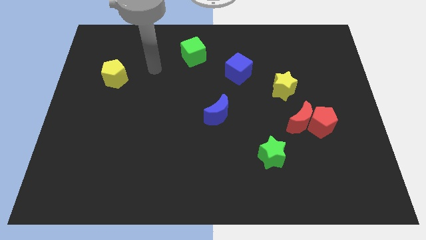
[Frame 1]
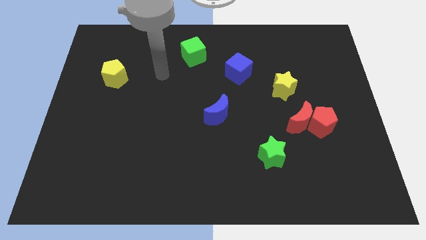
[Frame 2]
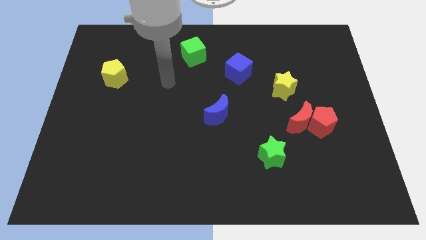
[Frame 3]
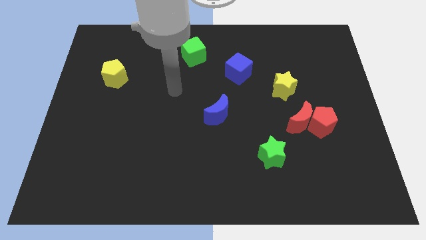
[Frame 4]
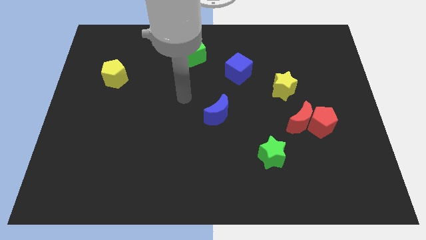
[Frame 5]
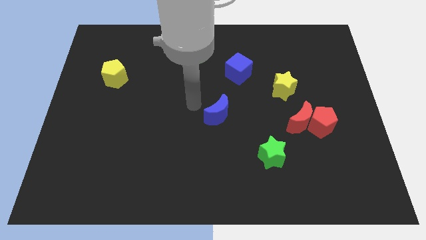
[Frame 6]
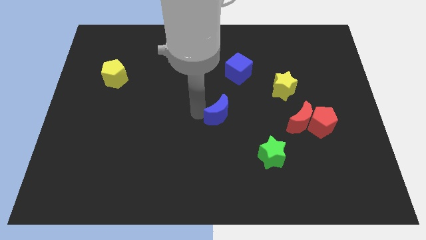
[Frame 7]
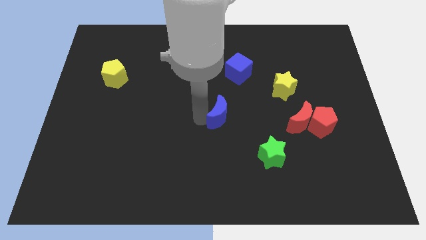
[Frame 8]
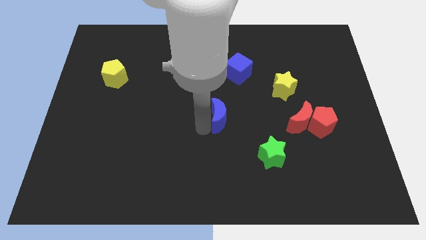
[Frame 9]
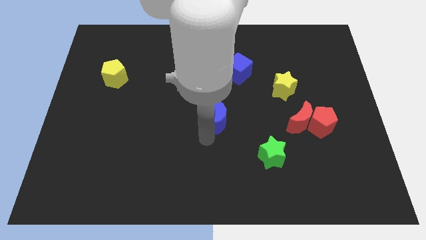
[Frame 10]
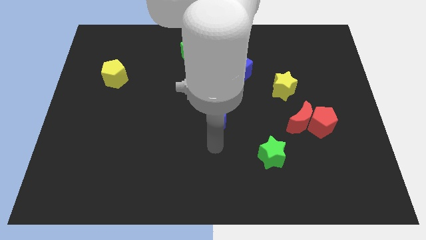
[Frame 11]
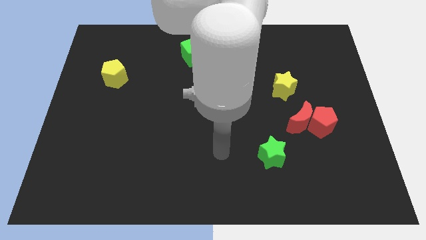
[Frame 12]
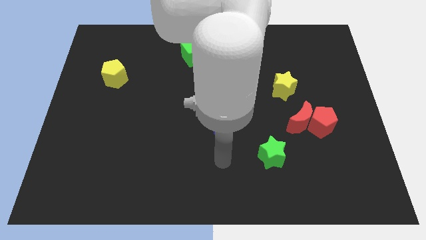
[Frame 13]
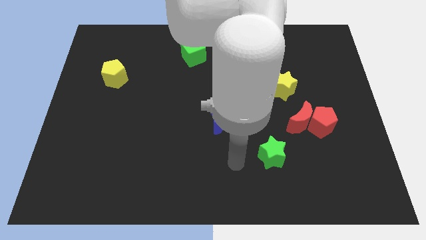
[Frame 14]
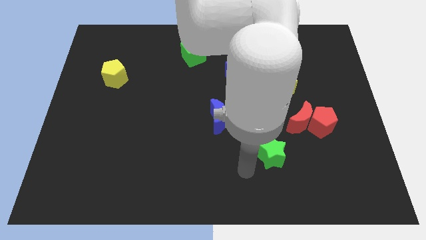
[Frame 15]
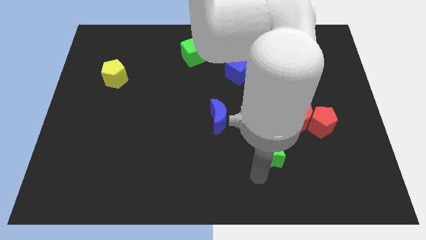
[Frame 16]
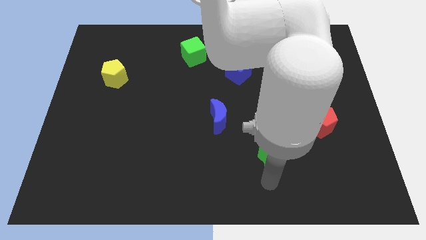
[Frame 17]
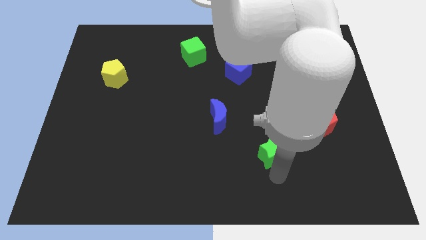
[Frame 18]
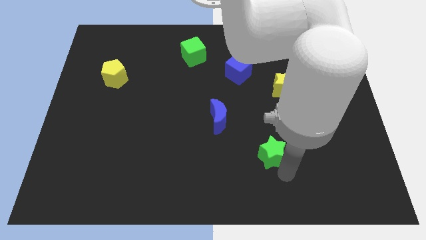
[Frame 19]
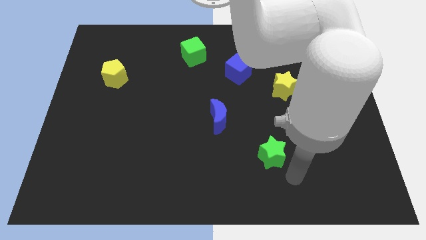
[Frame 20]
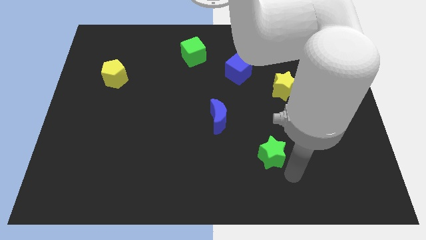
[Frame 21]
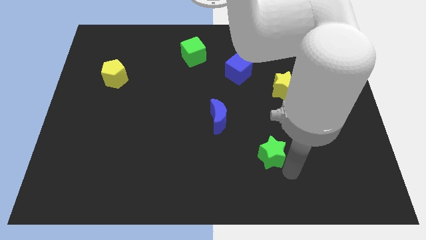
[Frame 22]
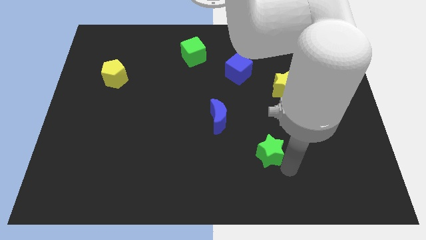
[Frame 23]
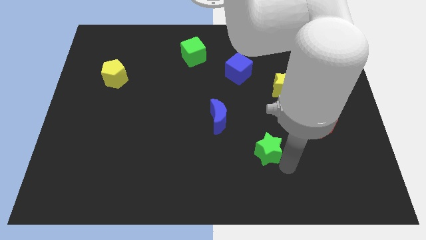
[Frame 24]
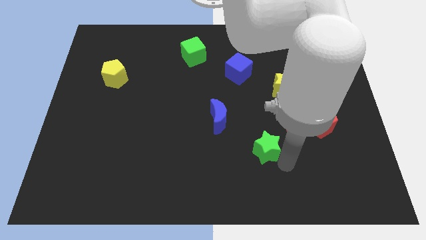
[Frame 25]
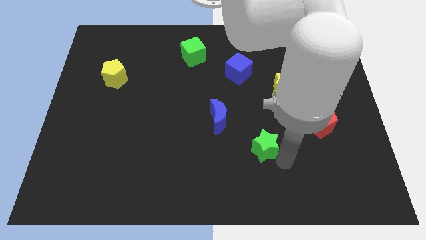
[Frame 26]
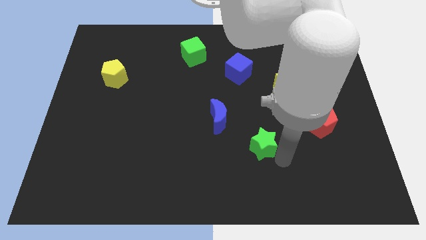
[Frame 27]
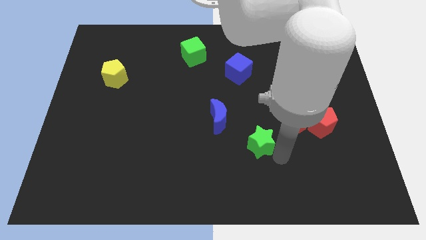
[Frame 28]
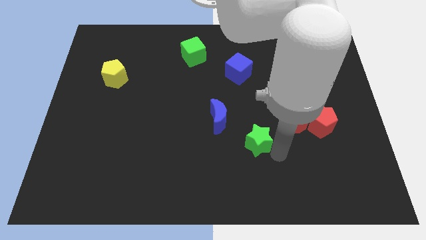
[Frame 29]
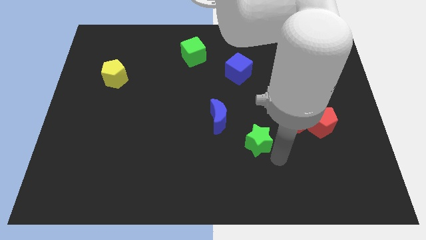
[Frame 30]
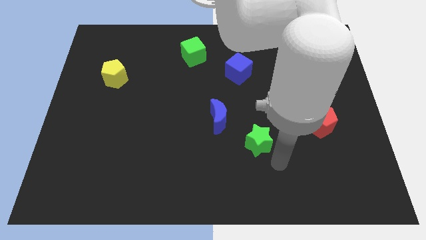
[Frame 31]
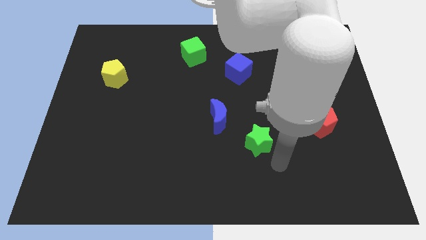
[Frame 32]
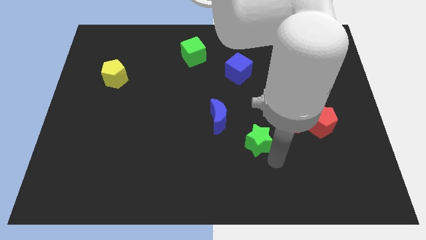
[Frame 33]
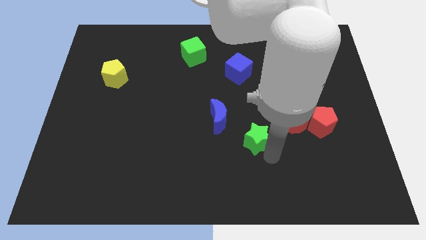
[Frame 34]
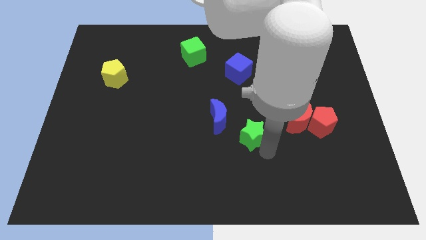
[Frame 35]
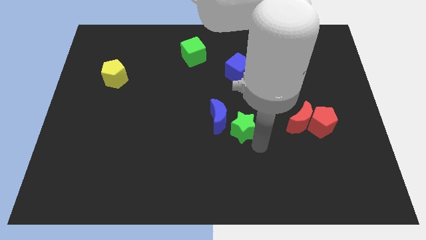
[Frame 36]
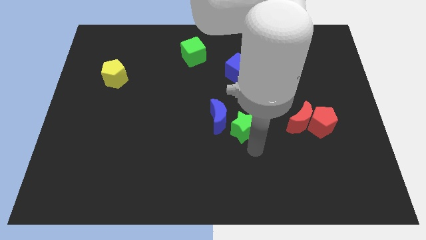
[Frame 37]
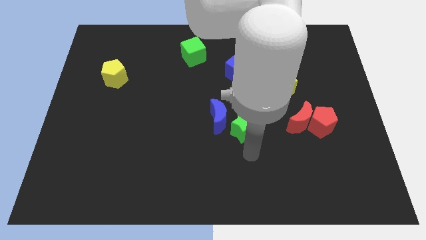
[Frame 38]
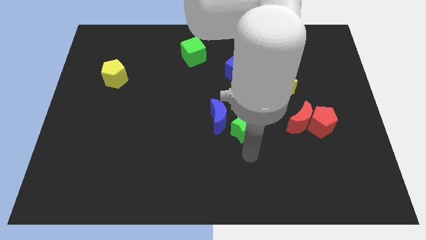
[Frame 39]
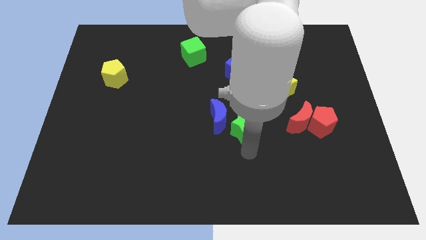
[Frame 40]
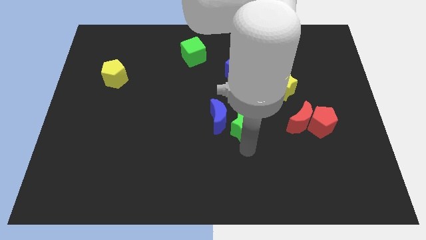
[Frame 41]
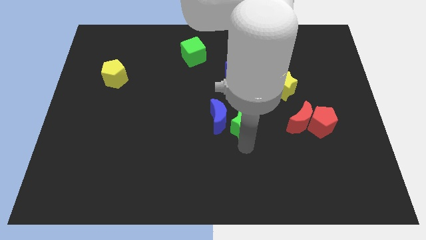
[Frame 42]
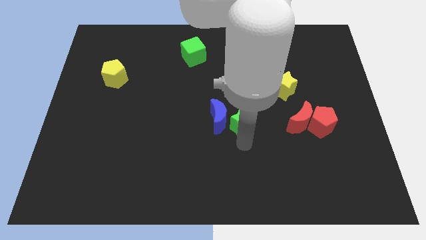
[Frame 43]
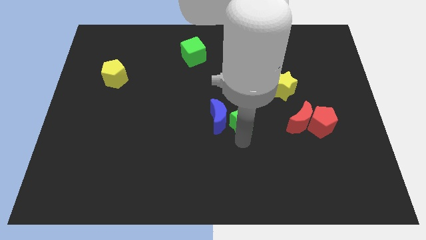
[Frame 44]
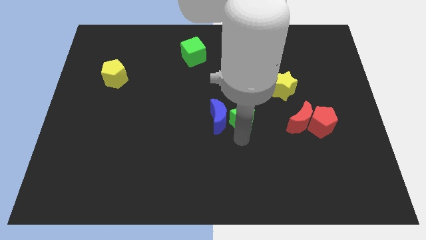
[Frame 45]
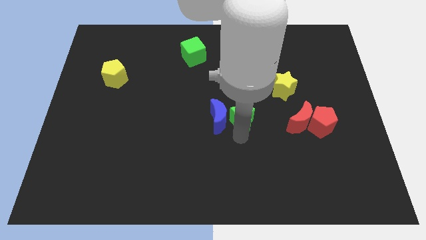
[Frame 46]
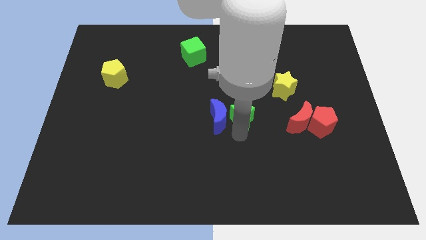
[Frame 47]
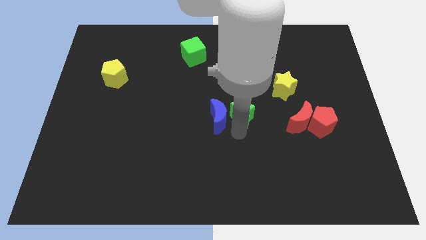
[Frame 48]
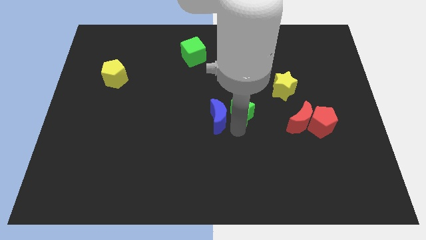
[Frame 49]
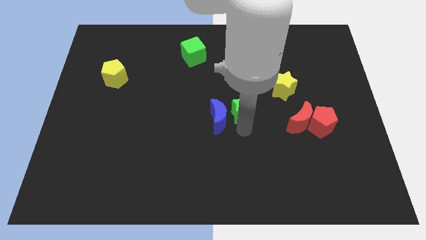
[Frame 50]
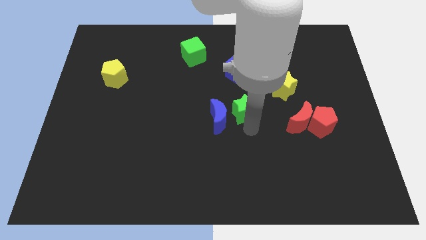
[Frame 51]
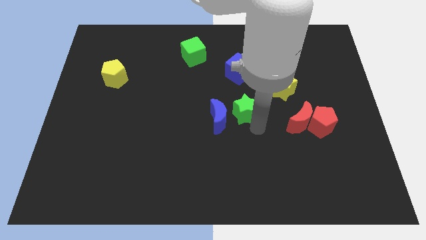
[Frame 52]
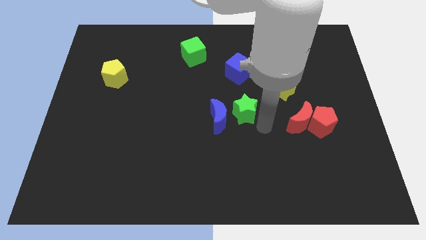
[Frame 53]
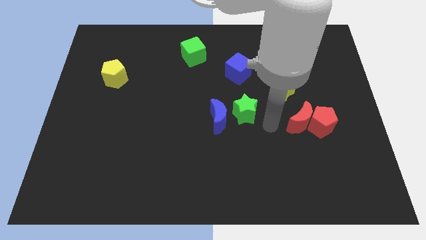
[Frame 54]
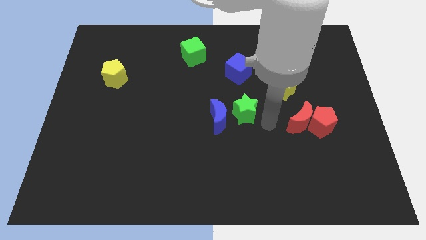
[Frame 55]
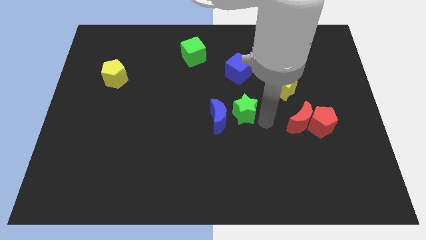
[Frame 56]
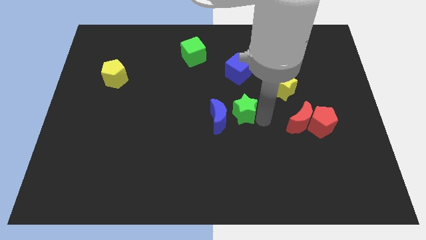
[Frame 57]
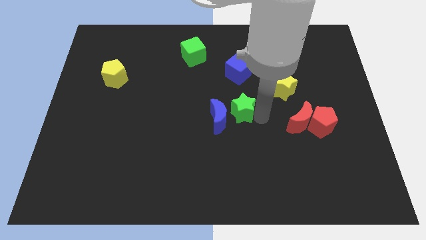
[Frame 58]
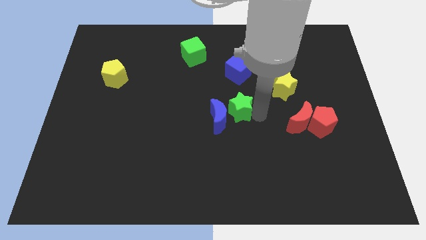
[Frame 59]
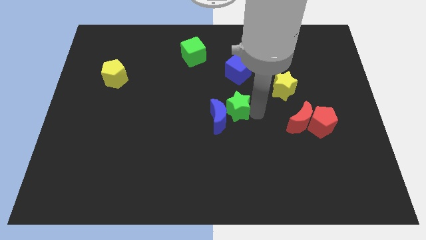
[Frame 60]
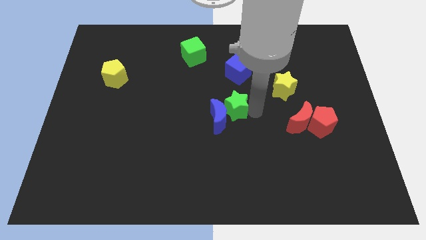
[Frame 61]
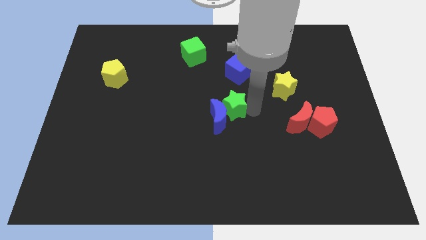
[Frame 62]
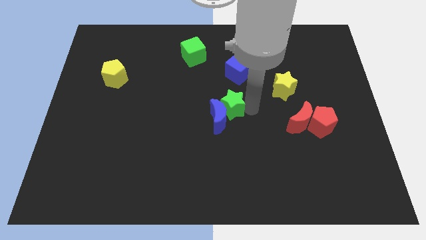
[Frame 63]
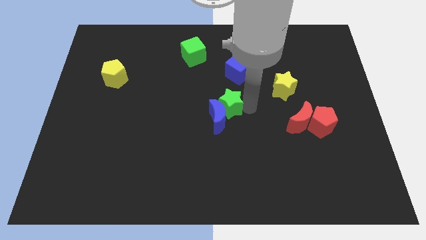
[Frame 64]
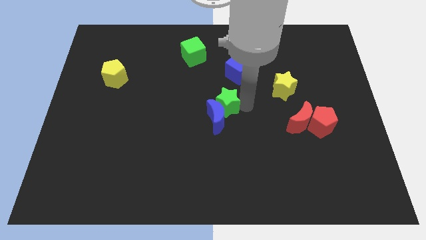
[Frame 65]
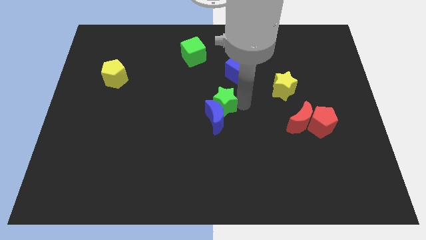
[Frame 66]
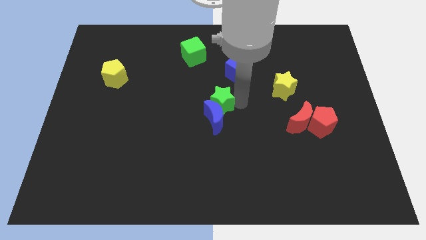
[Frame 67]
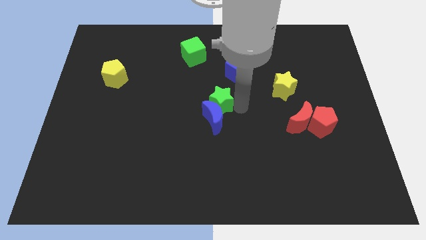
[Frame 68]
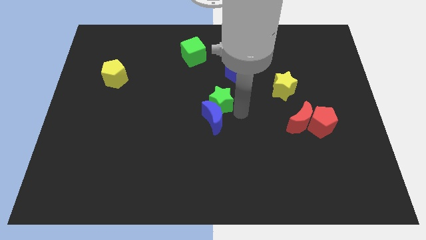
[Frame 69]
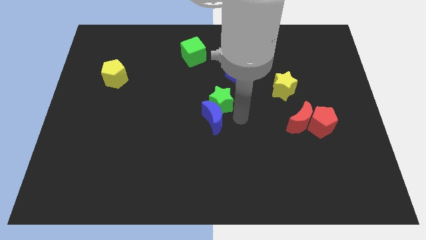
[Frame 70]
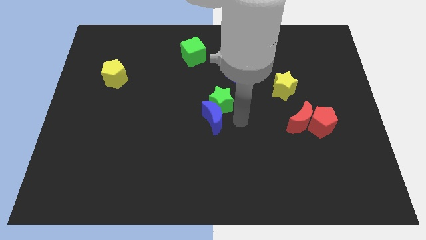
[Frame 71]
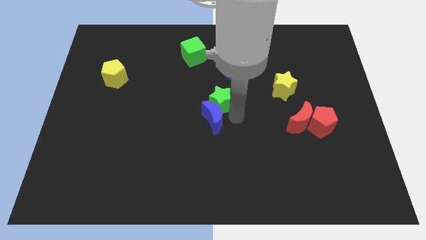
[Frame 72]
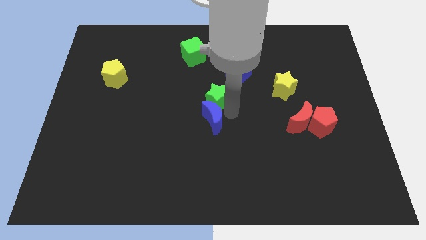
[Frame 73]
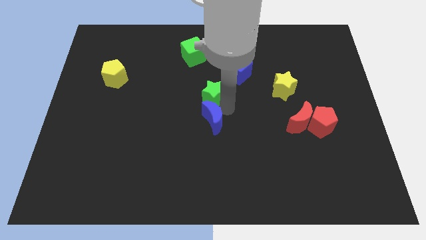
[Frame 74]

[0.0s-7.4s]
move the green star upwards and then left

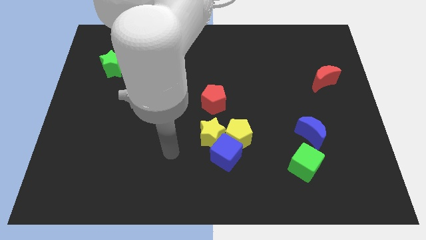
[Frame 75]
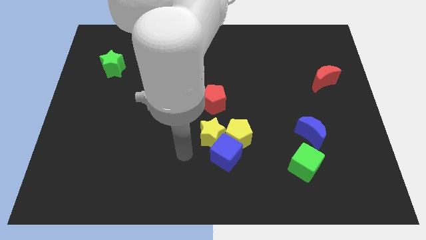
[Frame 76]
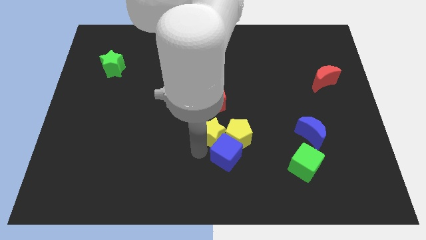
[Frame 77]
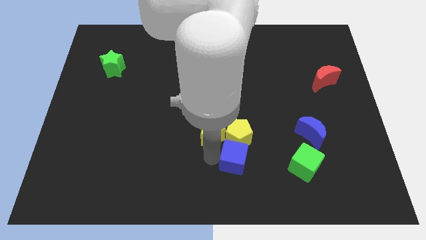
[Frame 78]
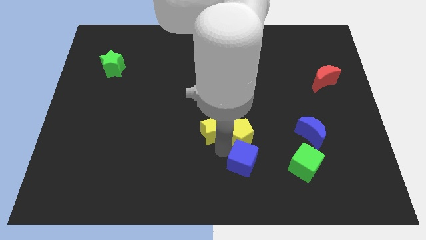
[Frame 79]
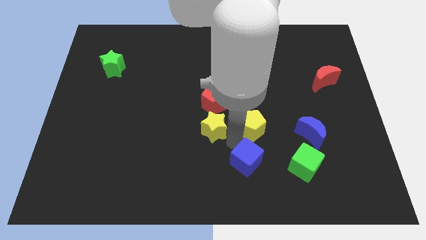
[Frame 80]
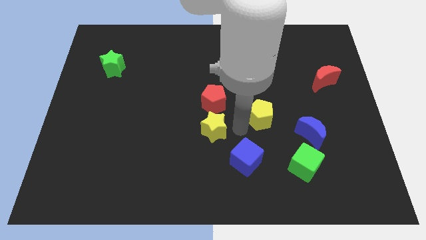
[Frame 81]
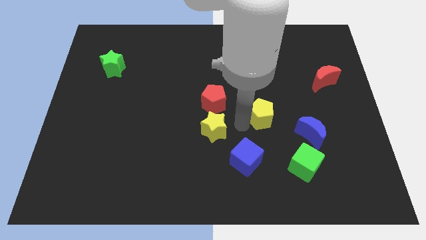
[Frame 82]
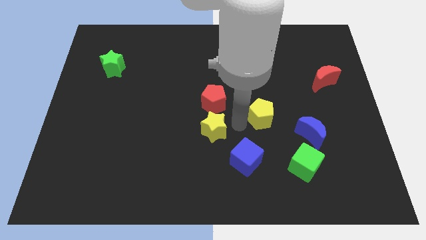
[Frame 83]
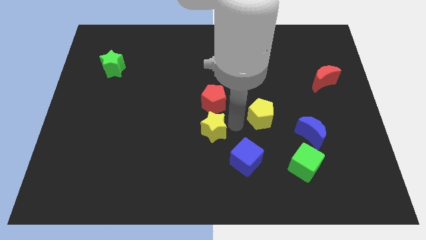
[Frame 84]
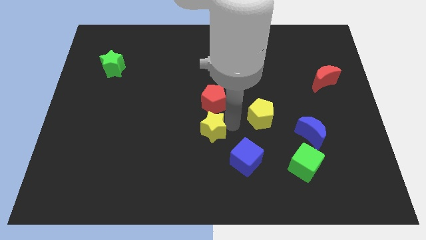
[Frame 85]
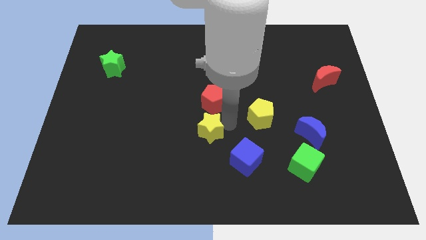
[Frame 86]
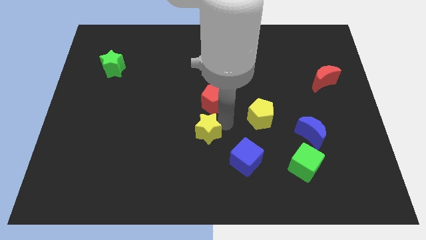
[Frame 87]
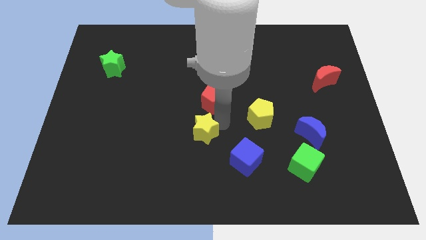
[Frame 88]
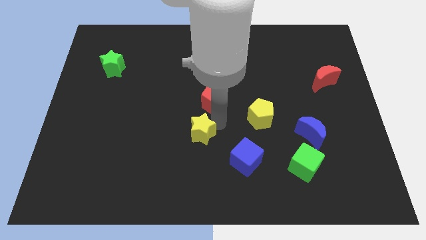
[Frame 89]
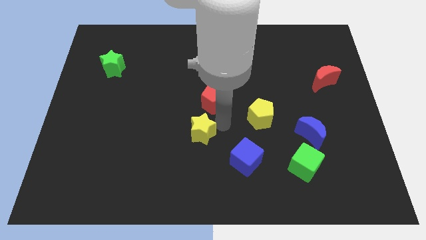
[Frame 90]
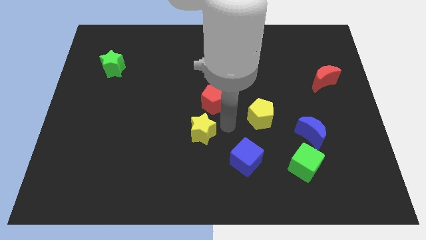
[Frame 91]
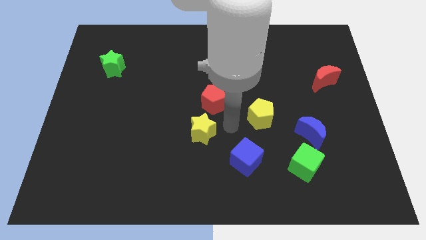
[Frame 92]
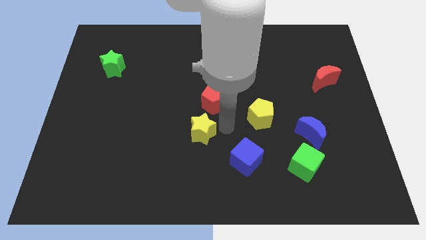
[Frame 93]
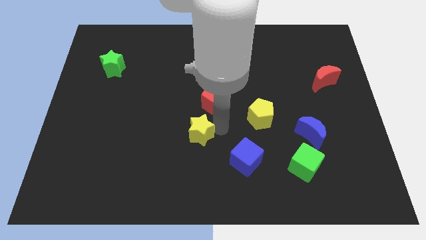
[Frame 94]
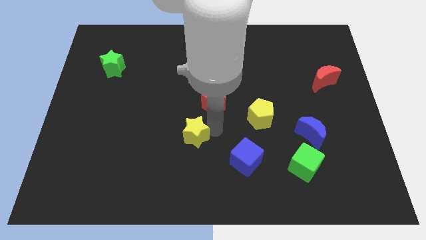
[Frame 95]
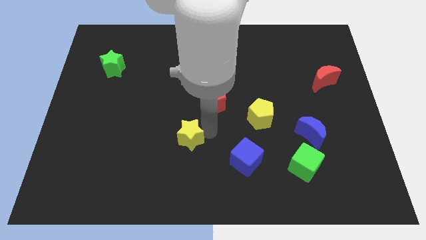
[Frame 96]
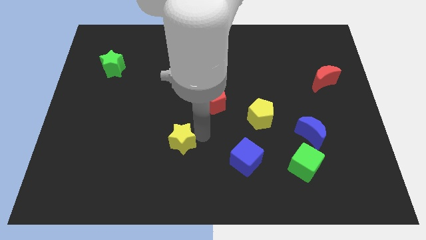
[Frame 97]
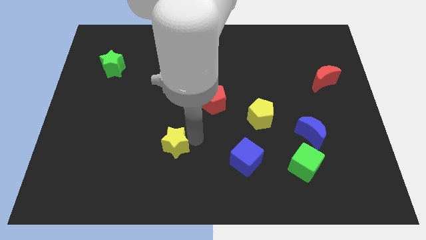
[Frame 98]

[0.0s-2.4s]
slightly slide the yellow star to the left
